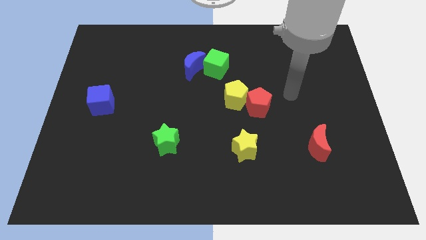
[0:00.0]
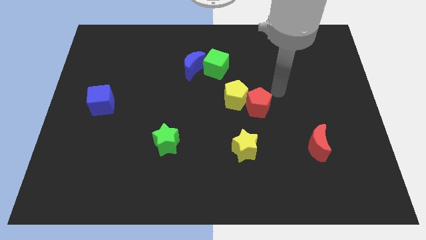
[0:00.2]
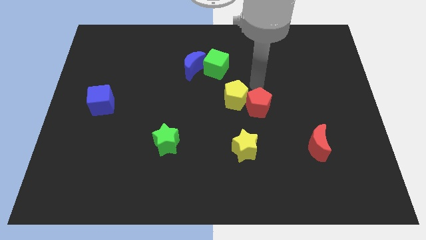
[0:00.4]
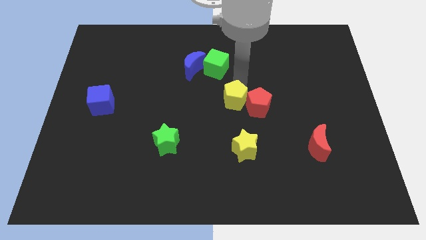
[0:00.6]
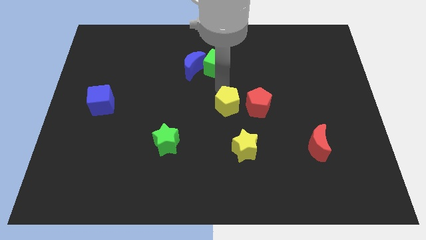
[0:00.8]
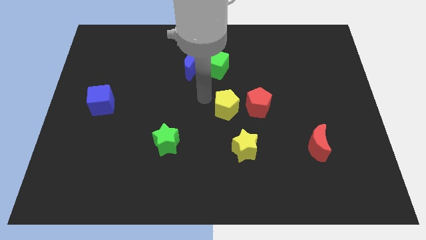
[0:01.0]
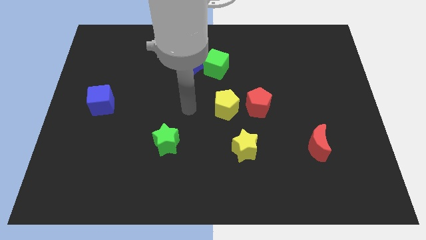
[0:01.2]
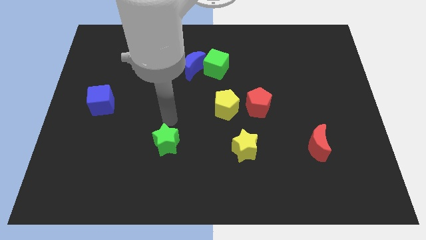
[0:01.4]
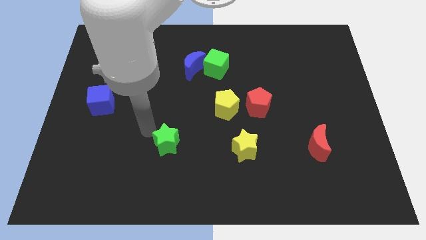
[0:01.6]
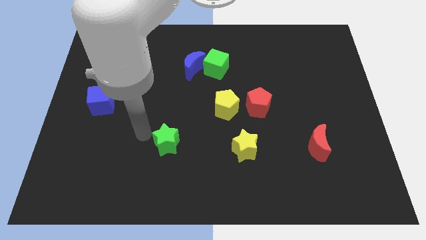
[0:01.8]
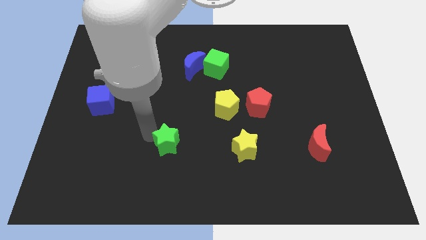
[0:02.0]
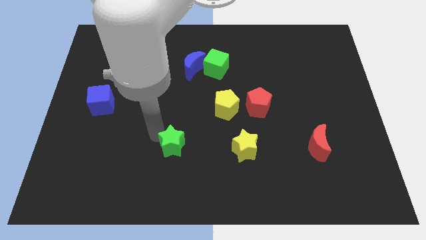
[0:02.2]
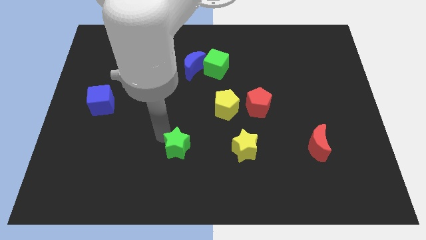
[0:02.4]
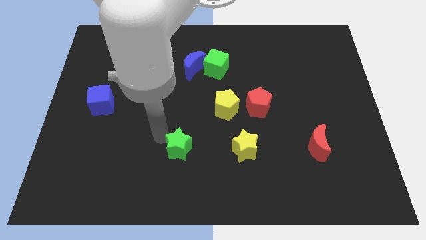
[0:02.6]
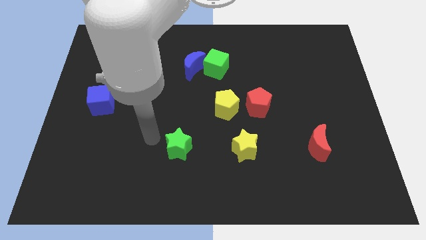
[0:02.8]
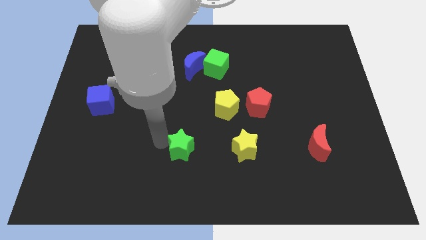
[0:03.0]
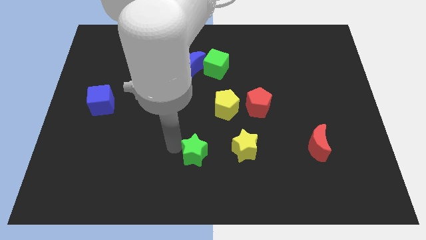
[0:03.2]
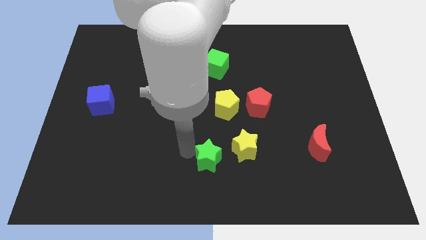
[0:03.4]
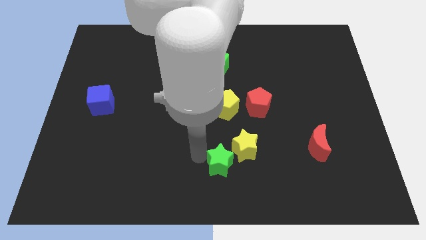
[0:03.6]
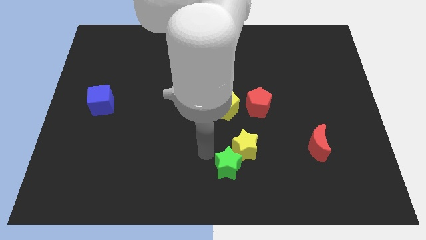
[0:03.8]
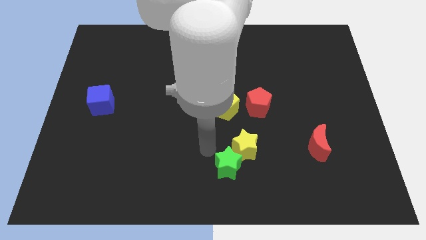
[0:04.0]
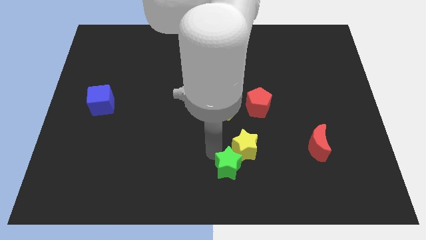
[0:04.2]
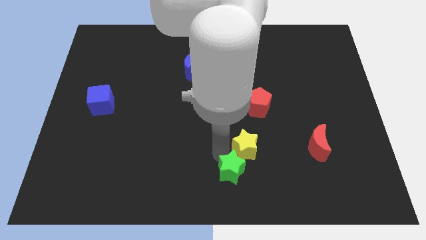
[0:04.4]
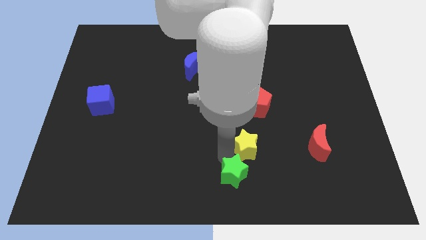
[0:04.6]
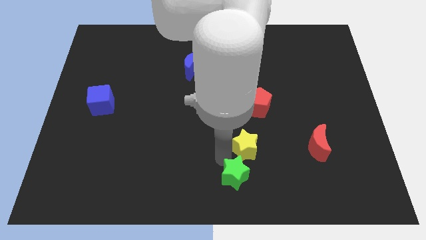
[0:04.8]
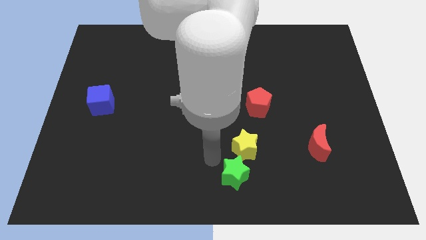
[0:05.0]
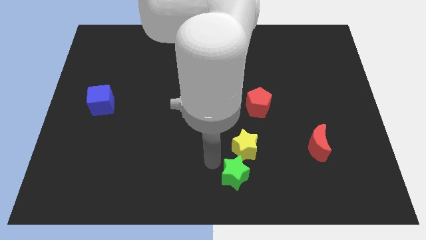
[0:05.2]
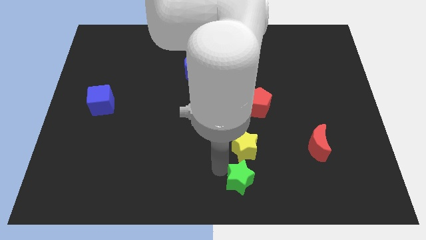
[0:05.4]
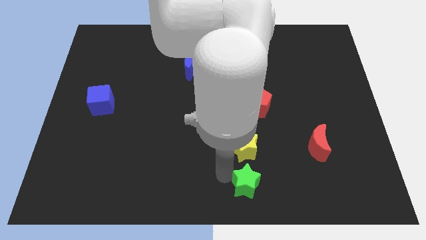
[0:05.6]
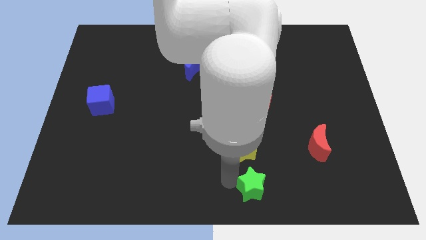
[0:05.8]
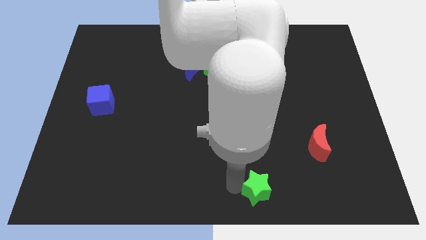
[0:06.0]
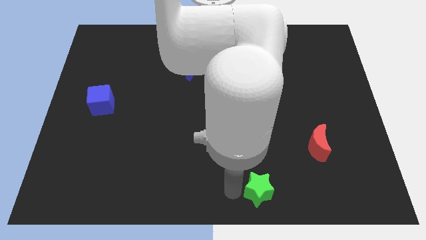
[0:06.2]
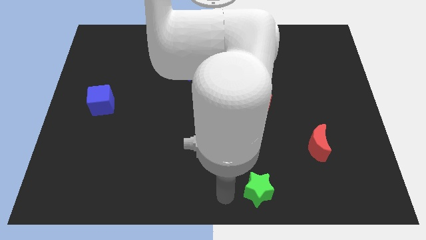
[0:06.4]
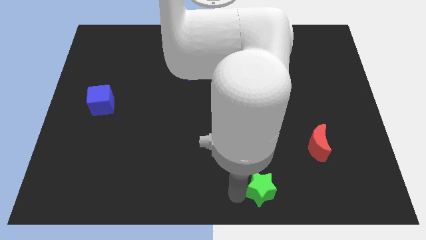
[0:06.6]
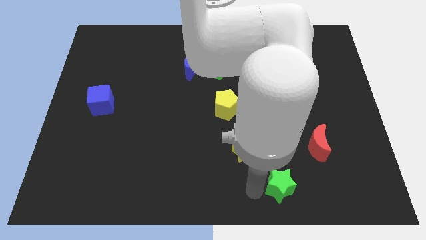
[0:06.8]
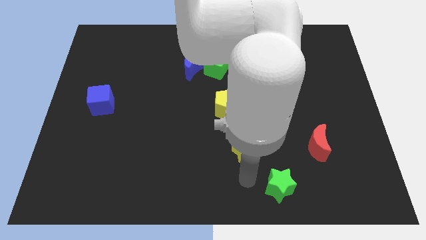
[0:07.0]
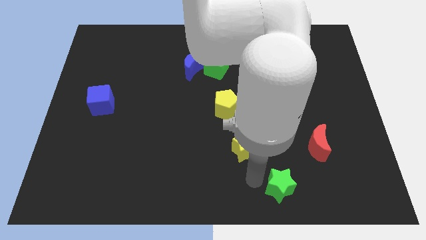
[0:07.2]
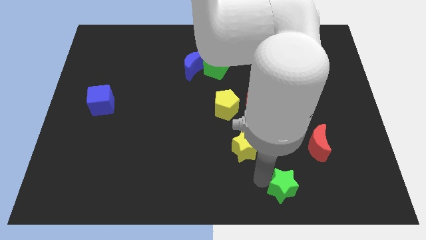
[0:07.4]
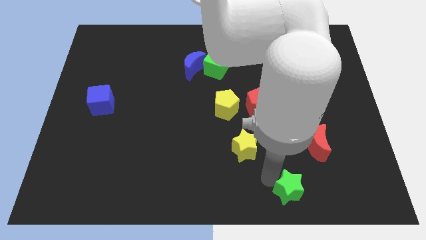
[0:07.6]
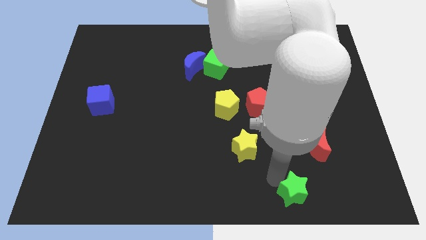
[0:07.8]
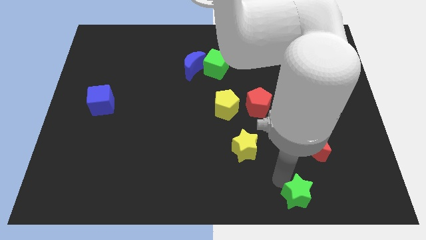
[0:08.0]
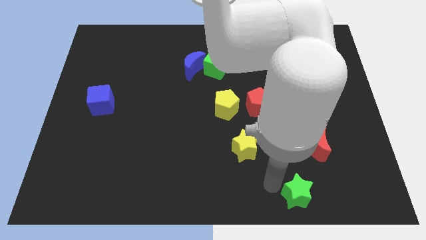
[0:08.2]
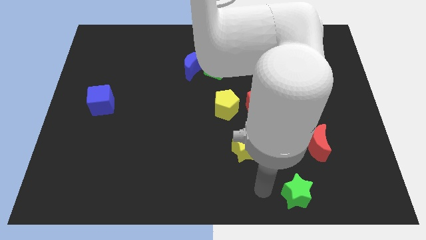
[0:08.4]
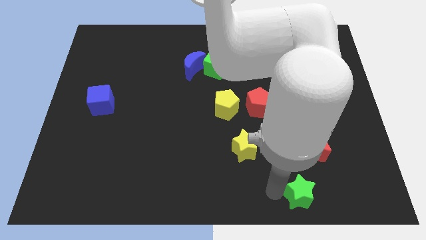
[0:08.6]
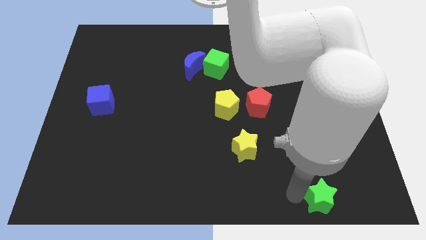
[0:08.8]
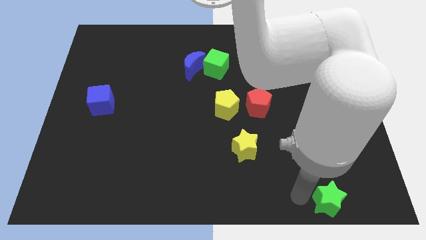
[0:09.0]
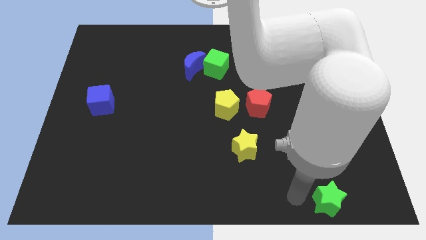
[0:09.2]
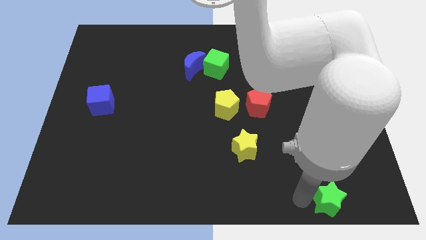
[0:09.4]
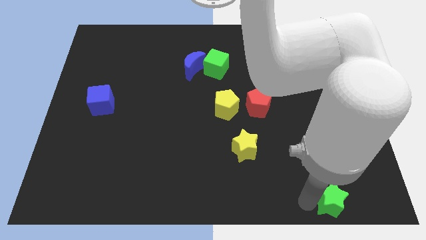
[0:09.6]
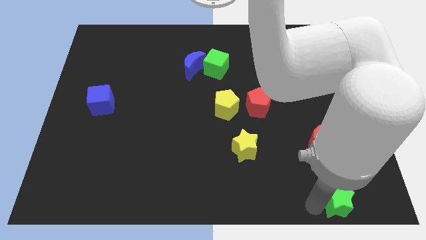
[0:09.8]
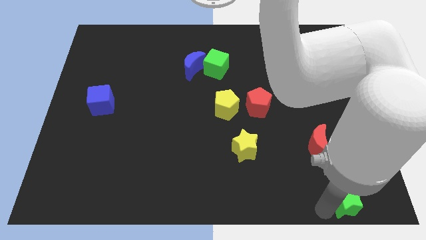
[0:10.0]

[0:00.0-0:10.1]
slide the green star to the bottom right corner

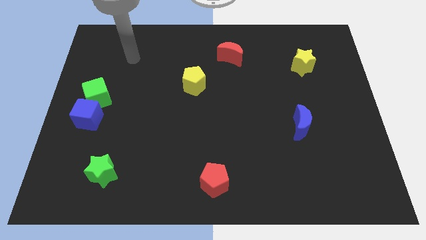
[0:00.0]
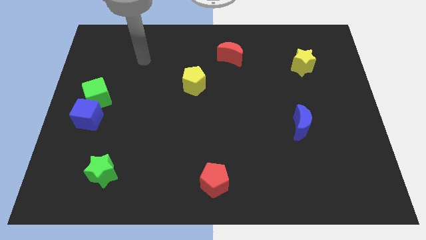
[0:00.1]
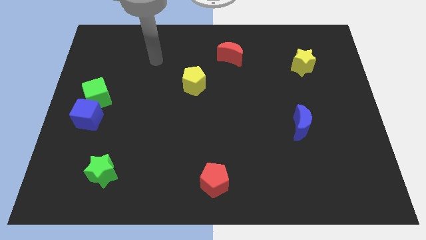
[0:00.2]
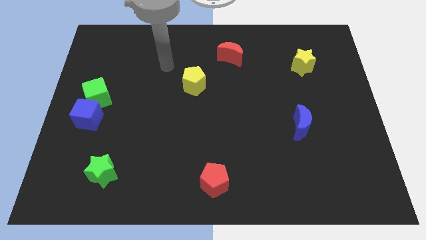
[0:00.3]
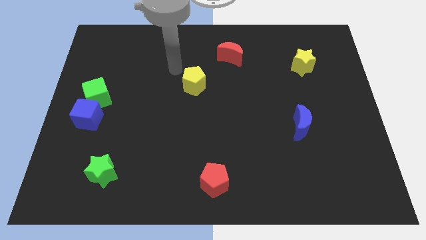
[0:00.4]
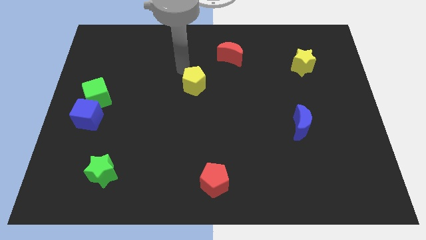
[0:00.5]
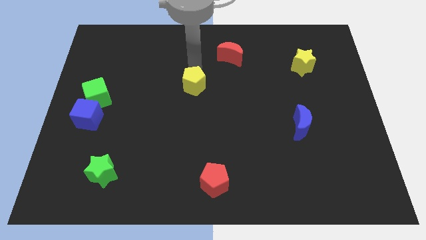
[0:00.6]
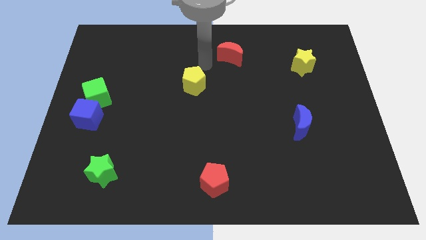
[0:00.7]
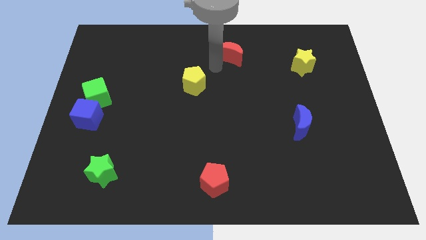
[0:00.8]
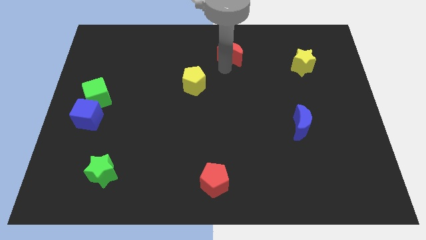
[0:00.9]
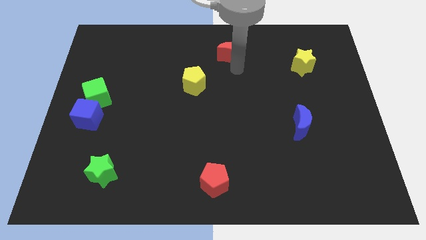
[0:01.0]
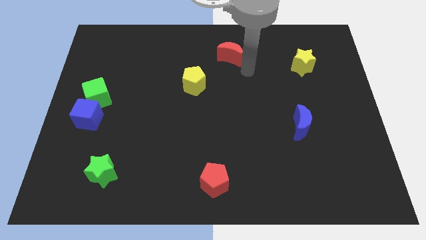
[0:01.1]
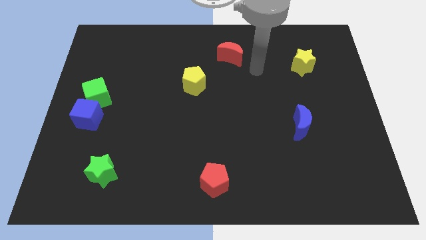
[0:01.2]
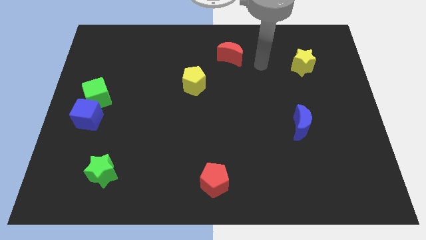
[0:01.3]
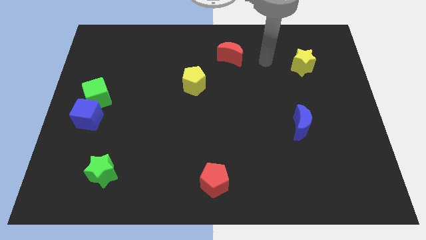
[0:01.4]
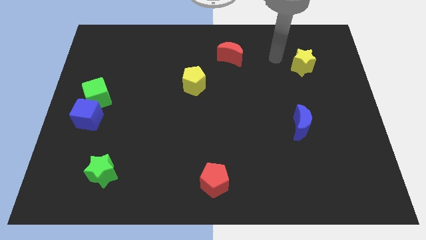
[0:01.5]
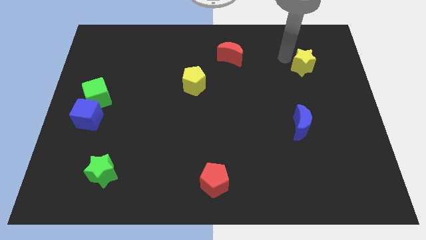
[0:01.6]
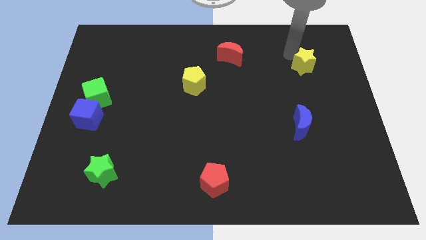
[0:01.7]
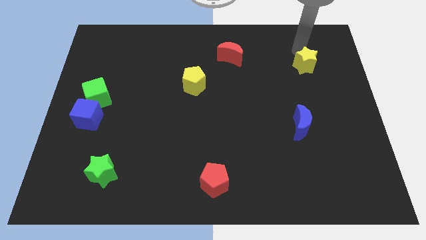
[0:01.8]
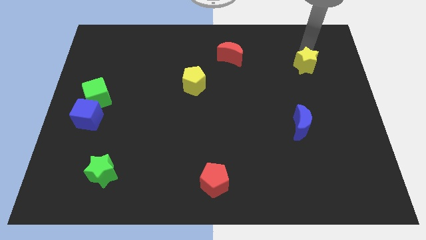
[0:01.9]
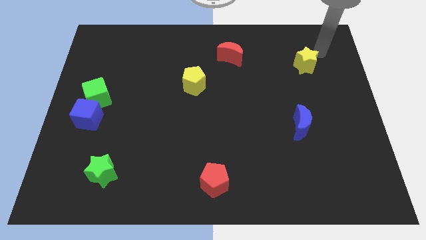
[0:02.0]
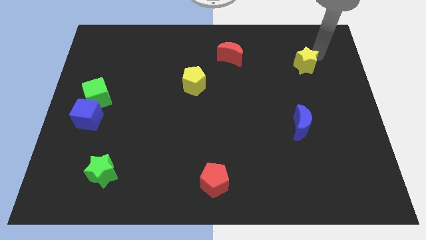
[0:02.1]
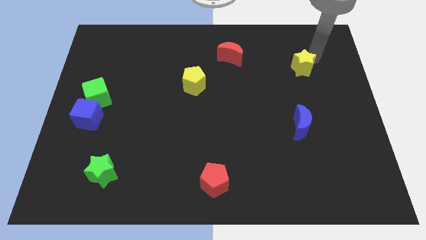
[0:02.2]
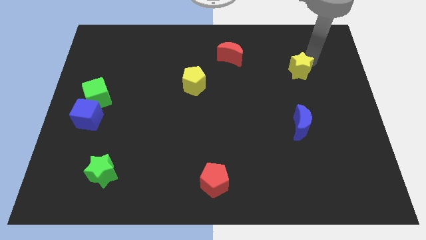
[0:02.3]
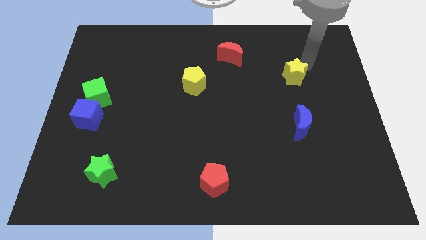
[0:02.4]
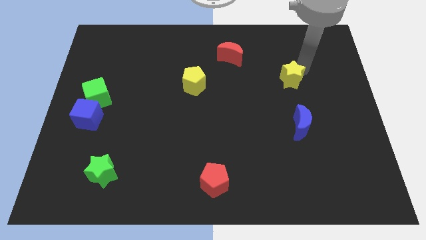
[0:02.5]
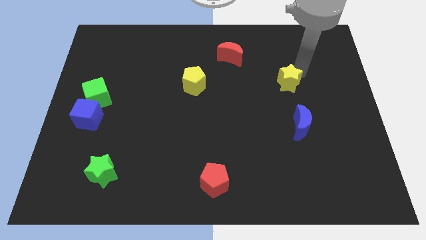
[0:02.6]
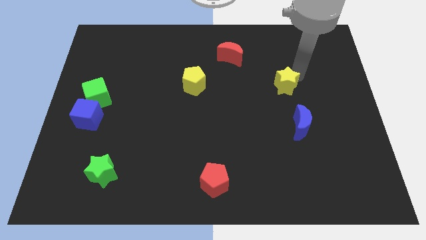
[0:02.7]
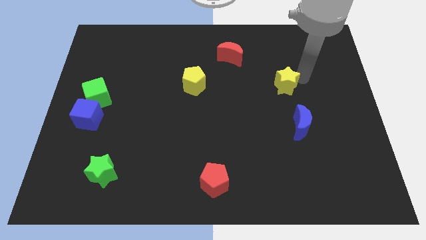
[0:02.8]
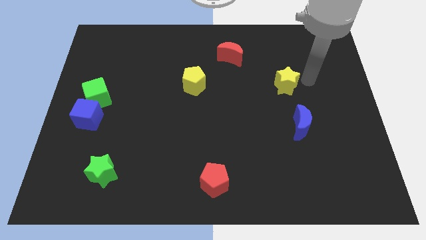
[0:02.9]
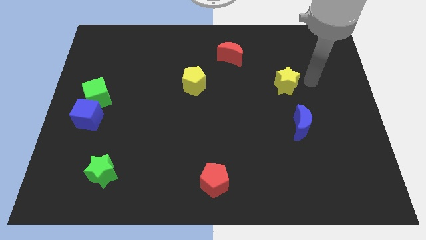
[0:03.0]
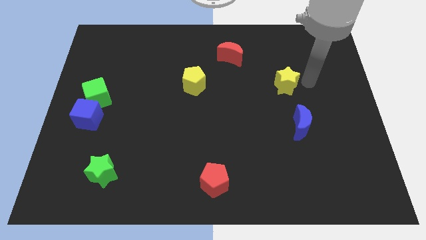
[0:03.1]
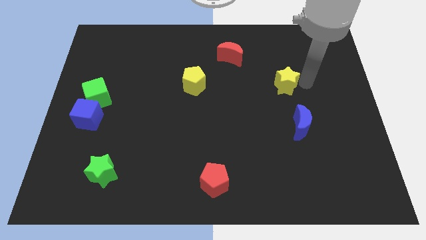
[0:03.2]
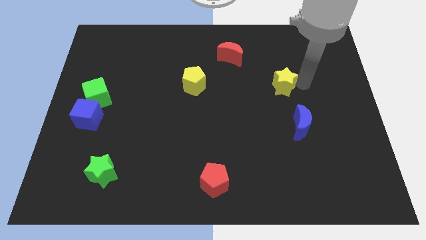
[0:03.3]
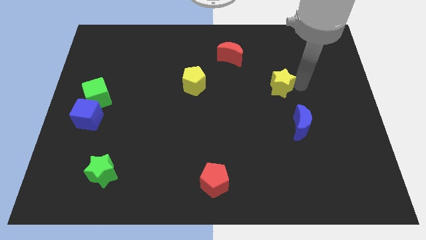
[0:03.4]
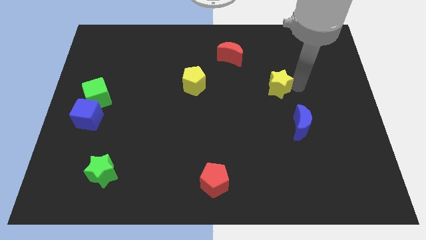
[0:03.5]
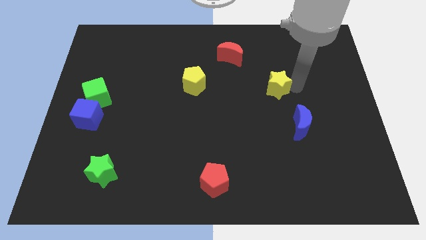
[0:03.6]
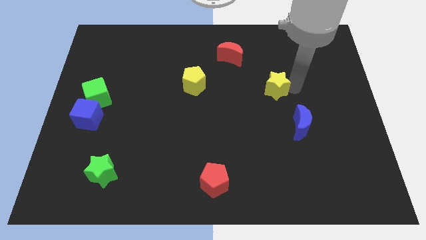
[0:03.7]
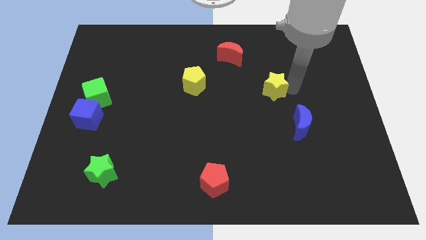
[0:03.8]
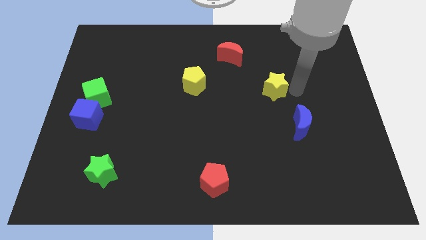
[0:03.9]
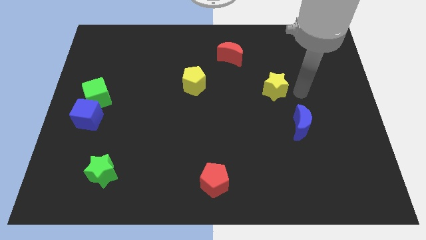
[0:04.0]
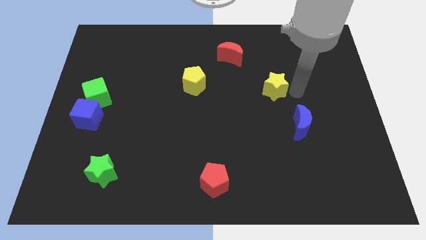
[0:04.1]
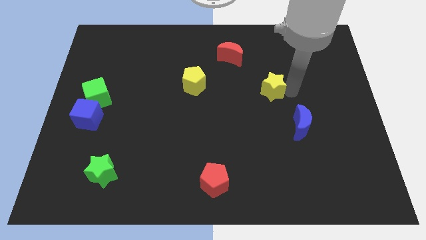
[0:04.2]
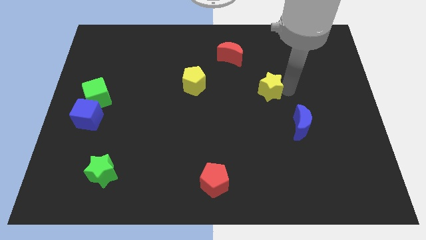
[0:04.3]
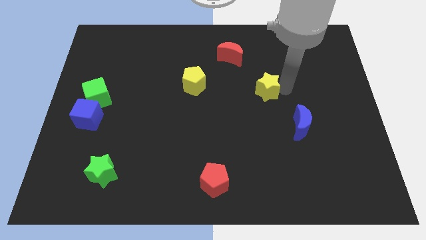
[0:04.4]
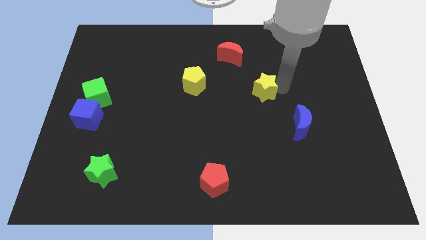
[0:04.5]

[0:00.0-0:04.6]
slide the yellow star to the middle
